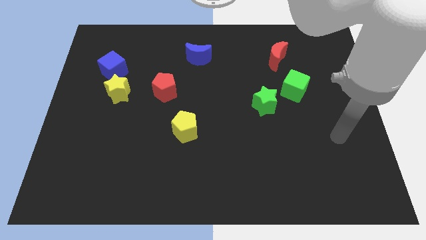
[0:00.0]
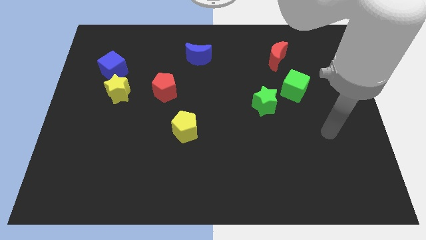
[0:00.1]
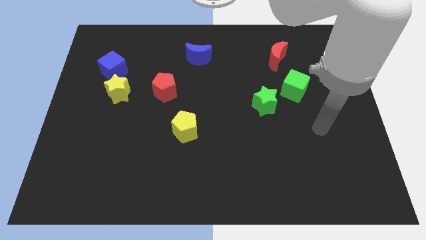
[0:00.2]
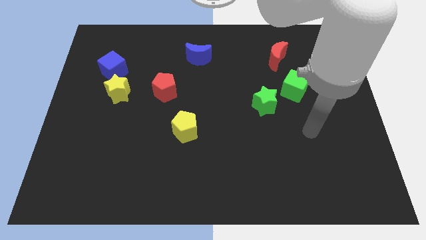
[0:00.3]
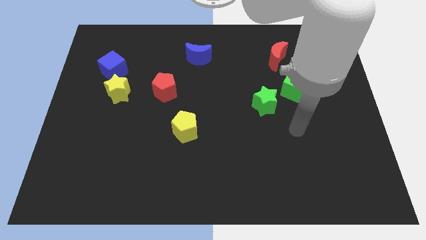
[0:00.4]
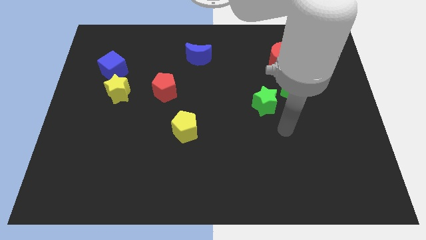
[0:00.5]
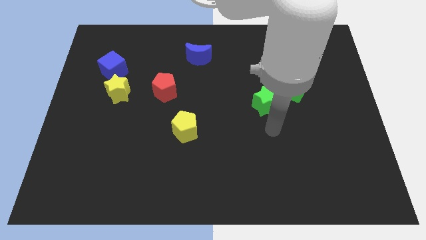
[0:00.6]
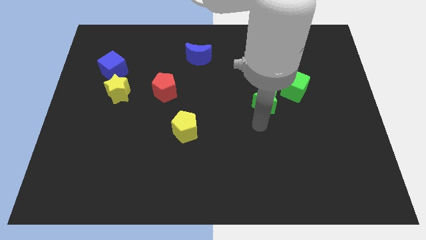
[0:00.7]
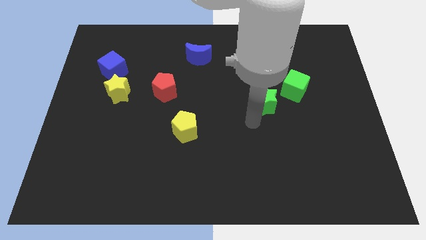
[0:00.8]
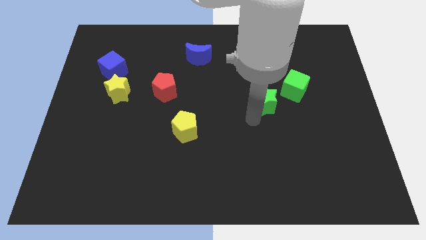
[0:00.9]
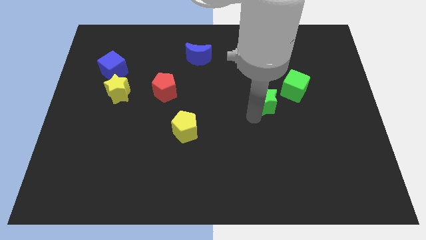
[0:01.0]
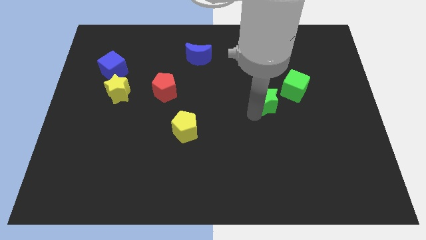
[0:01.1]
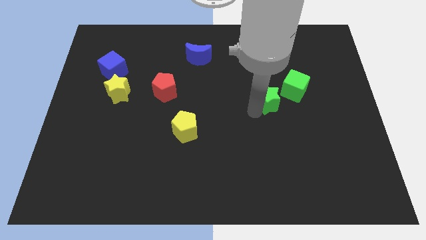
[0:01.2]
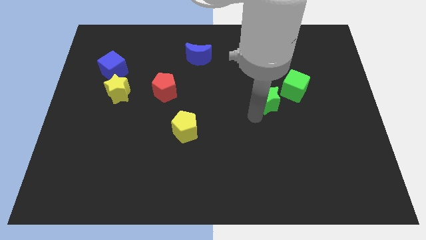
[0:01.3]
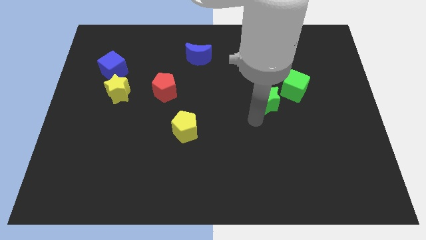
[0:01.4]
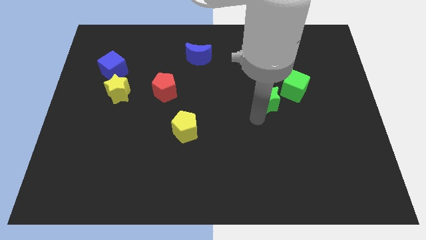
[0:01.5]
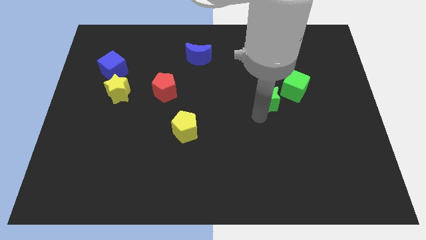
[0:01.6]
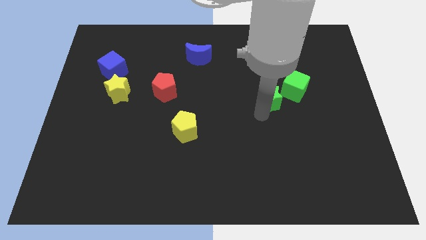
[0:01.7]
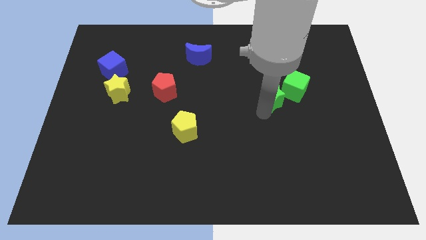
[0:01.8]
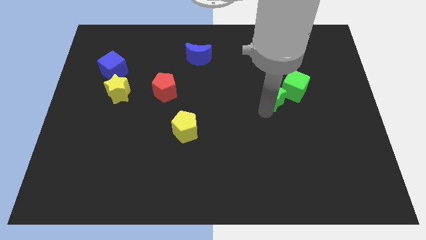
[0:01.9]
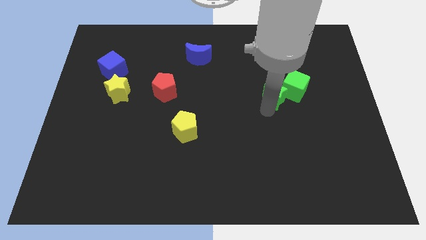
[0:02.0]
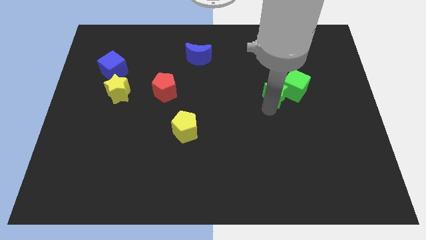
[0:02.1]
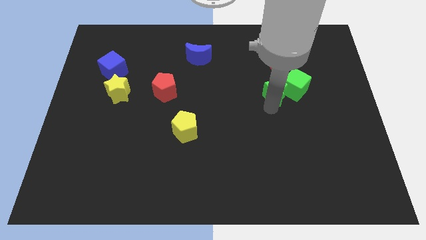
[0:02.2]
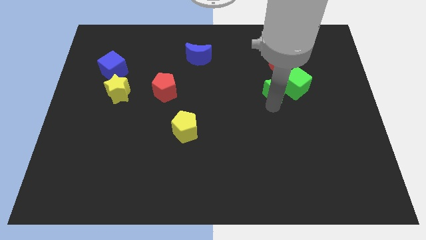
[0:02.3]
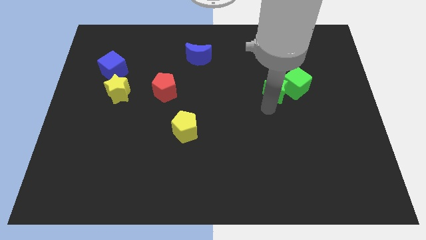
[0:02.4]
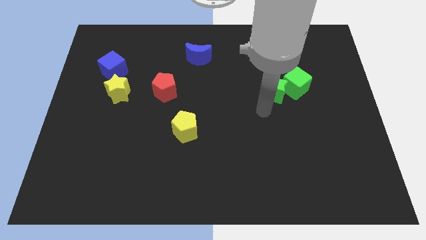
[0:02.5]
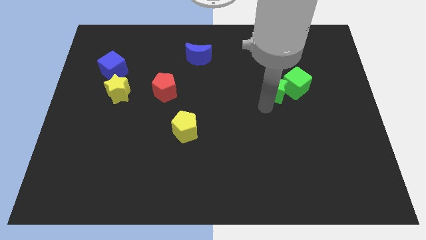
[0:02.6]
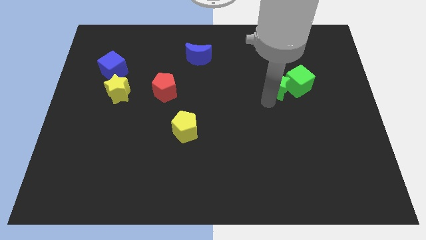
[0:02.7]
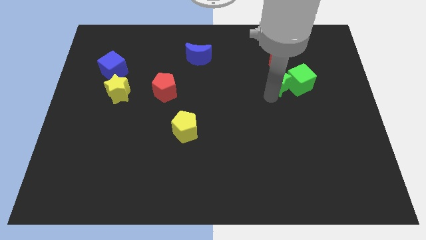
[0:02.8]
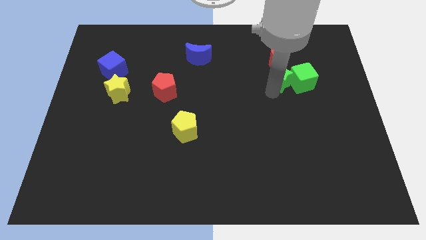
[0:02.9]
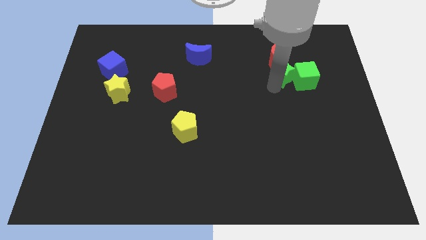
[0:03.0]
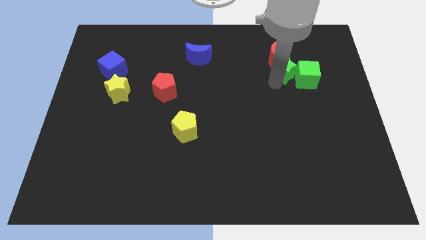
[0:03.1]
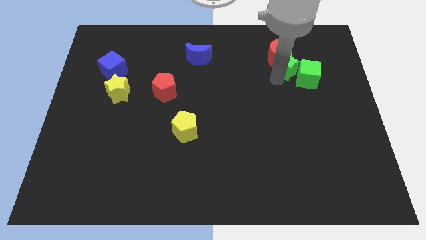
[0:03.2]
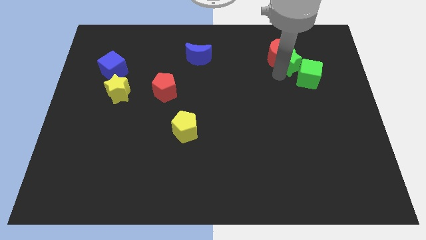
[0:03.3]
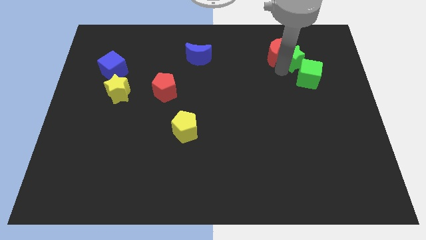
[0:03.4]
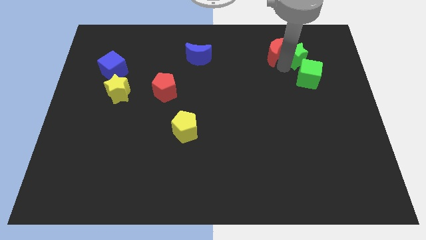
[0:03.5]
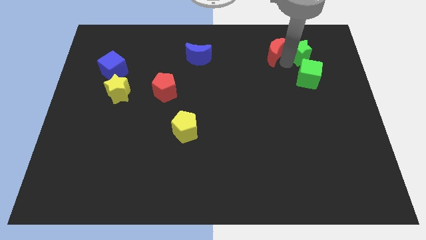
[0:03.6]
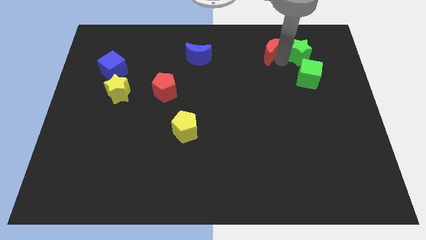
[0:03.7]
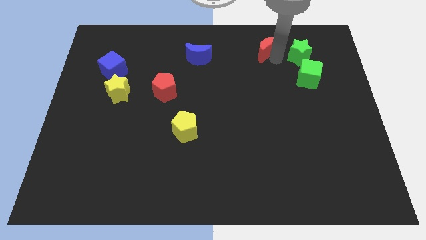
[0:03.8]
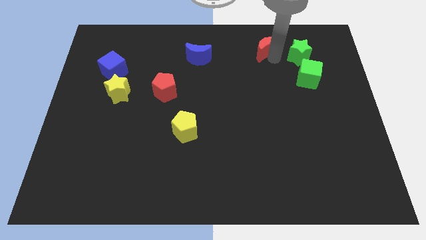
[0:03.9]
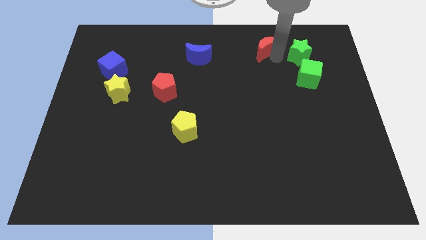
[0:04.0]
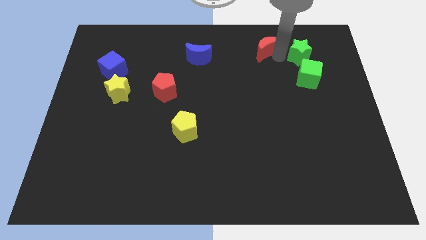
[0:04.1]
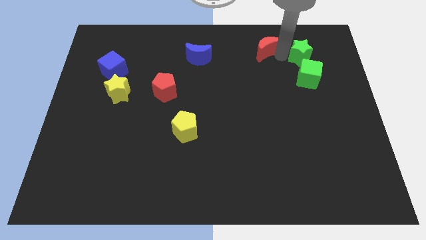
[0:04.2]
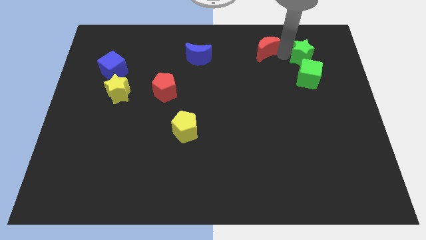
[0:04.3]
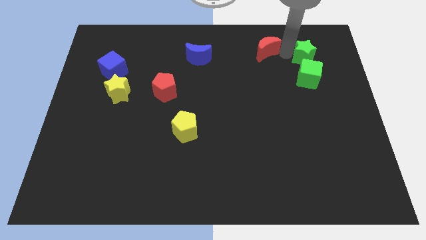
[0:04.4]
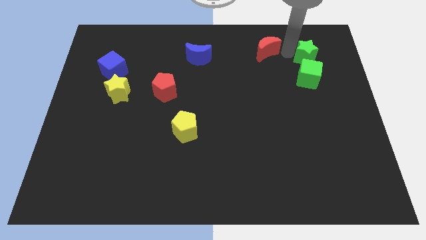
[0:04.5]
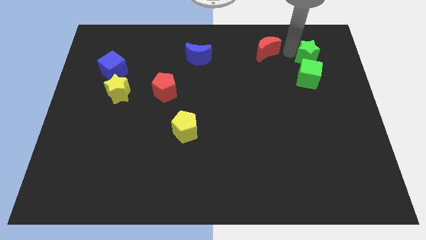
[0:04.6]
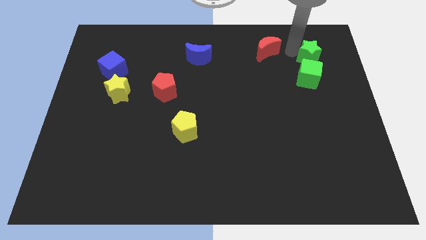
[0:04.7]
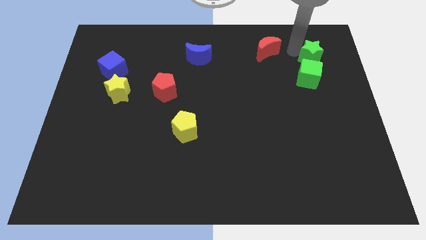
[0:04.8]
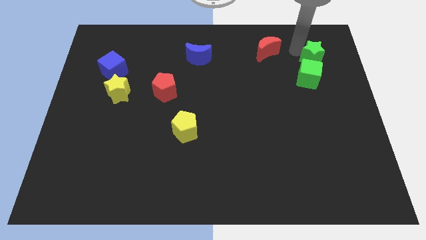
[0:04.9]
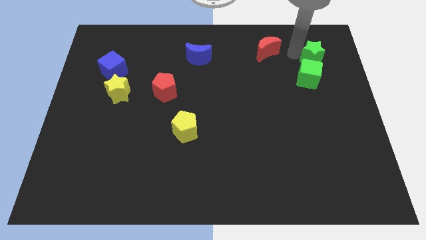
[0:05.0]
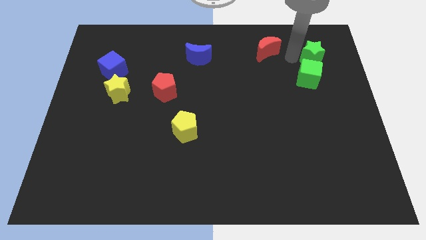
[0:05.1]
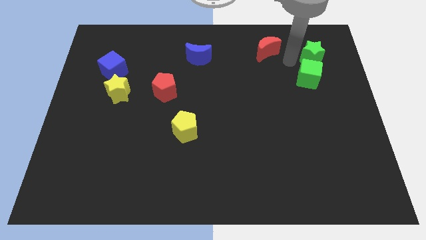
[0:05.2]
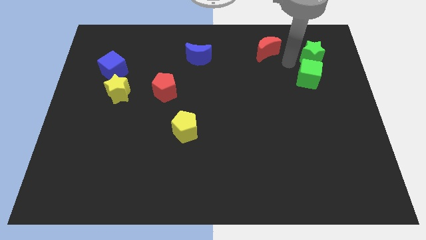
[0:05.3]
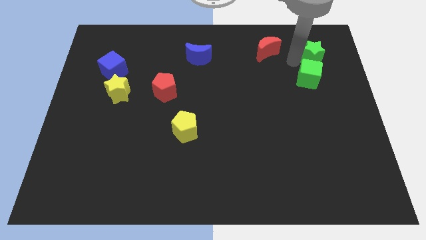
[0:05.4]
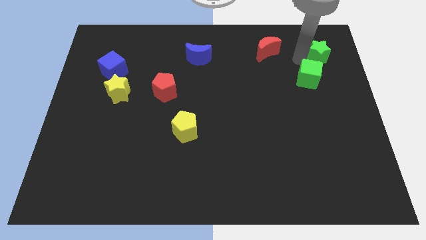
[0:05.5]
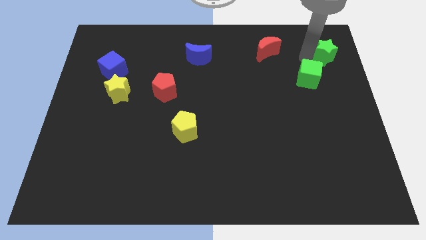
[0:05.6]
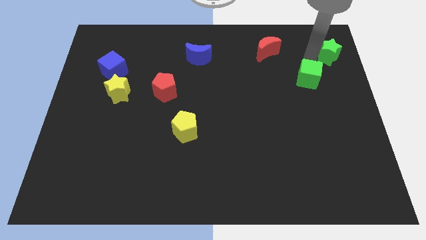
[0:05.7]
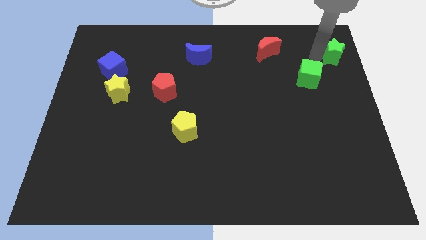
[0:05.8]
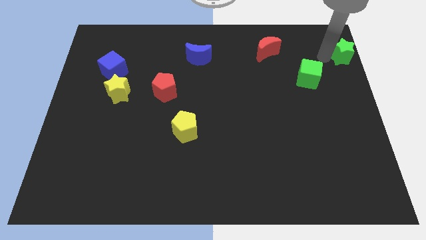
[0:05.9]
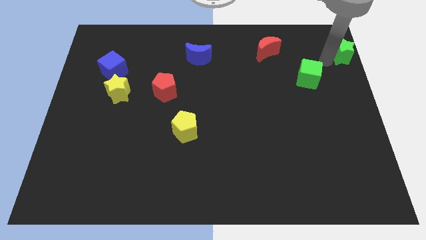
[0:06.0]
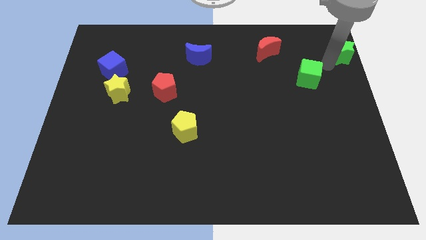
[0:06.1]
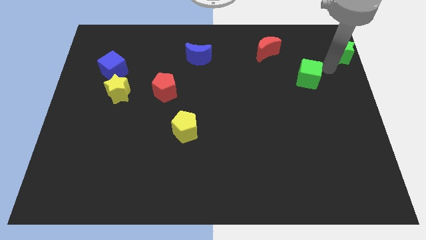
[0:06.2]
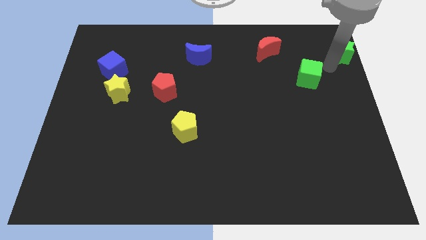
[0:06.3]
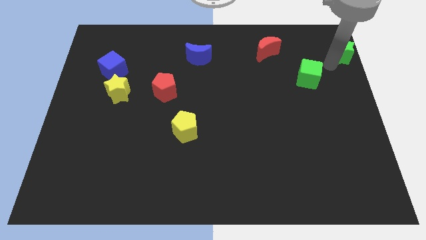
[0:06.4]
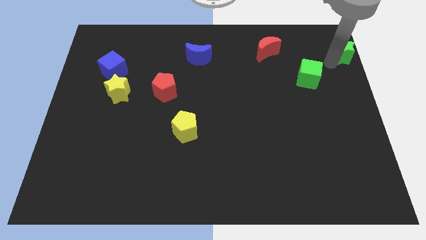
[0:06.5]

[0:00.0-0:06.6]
move the green star to the top right corner
